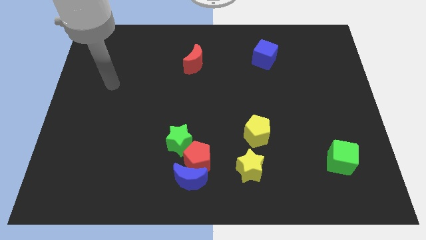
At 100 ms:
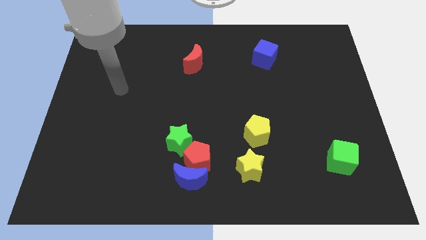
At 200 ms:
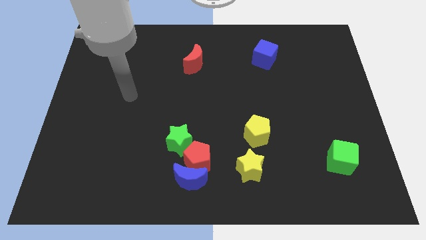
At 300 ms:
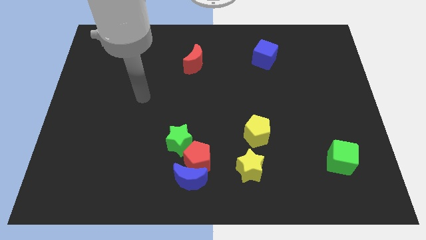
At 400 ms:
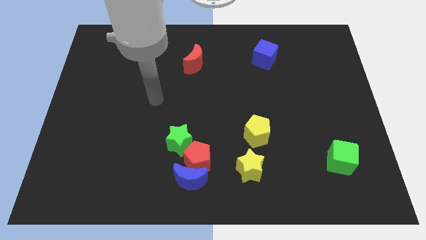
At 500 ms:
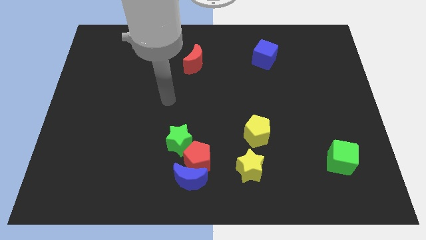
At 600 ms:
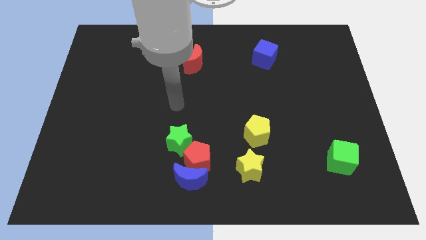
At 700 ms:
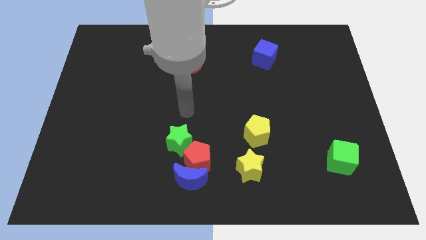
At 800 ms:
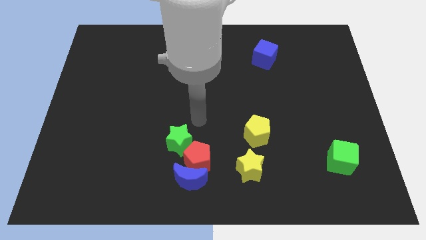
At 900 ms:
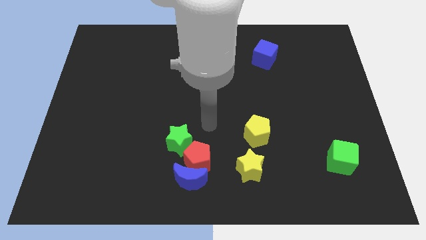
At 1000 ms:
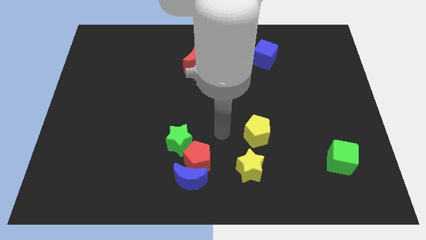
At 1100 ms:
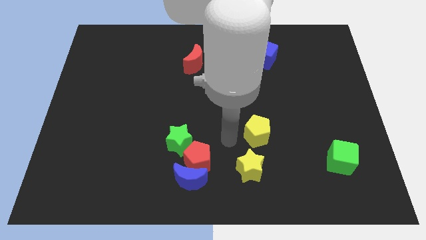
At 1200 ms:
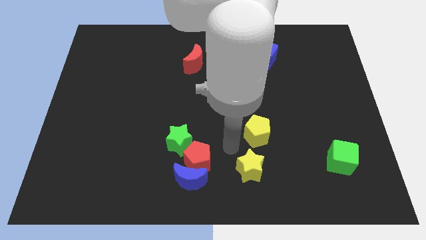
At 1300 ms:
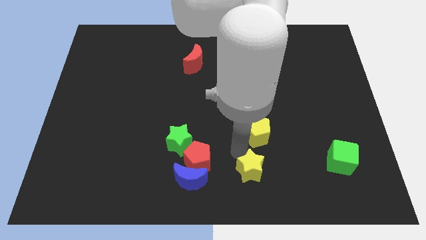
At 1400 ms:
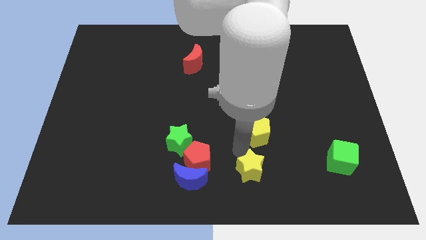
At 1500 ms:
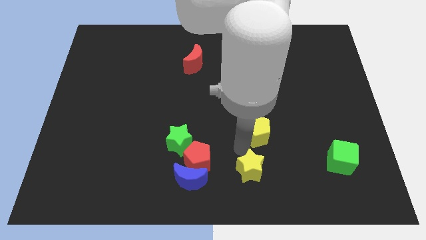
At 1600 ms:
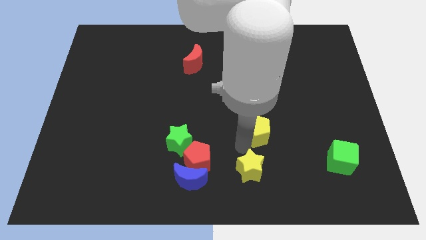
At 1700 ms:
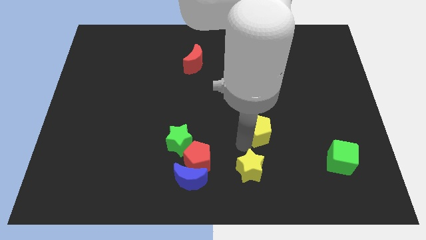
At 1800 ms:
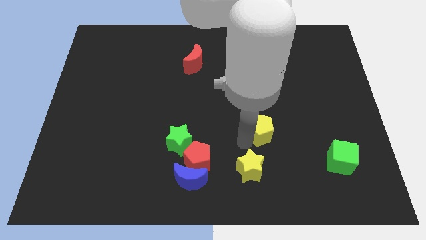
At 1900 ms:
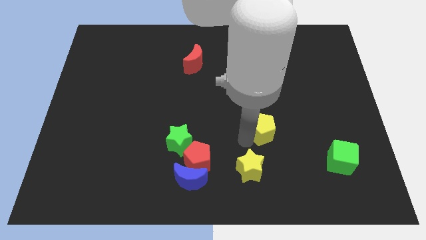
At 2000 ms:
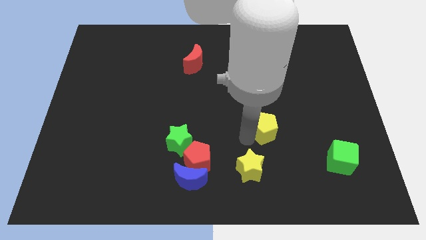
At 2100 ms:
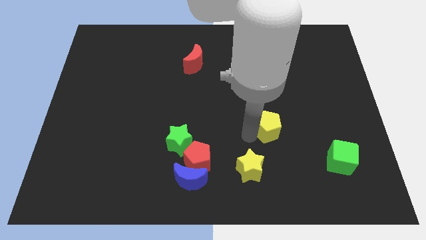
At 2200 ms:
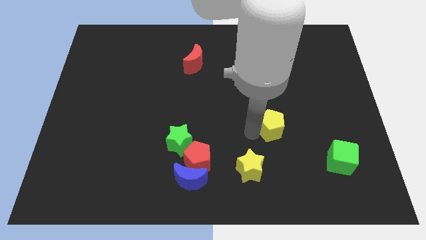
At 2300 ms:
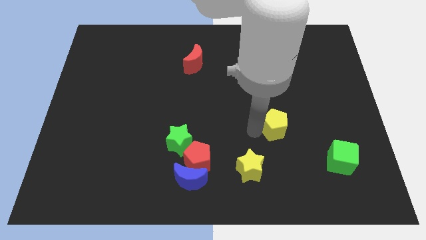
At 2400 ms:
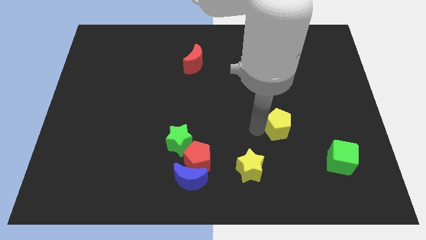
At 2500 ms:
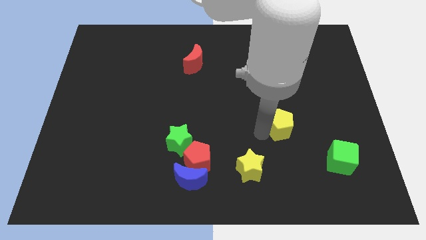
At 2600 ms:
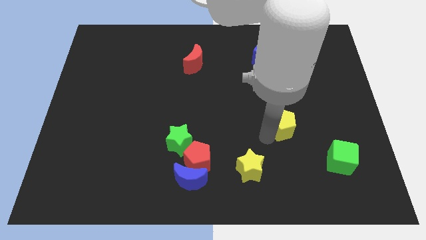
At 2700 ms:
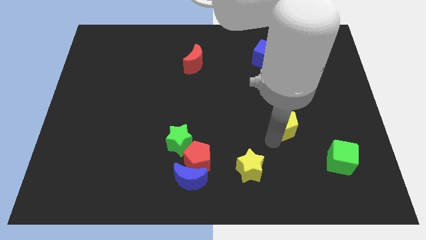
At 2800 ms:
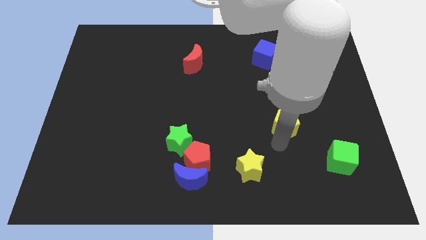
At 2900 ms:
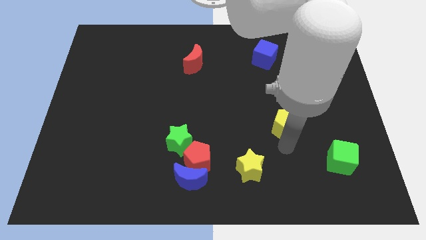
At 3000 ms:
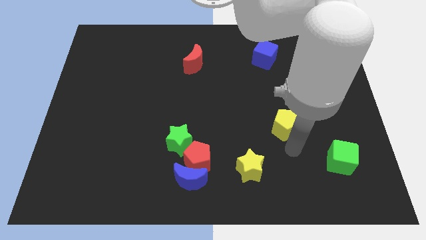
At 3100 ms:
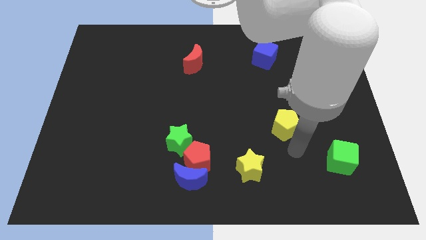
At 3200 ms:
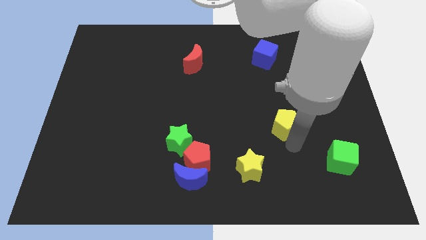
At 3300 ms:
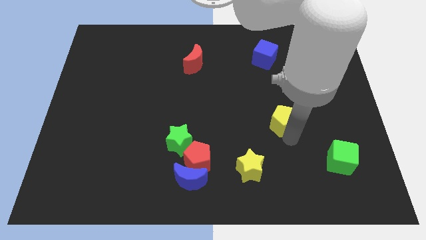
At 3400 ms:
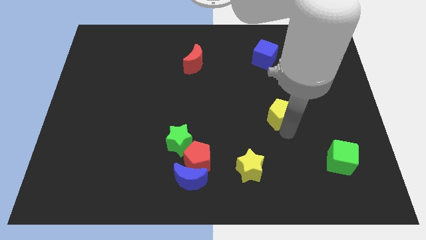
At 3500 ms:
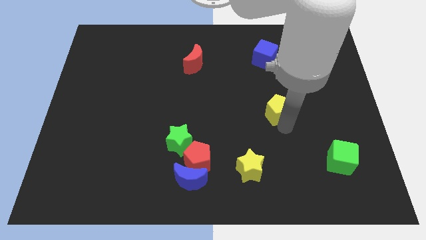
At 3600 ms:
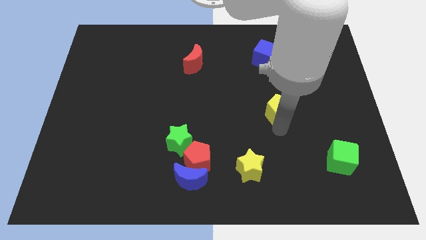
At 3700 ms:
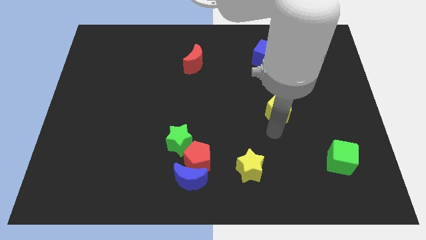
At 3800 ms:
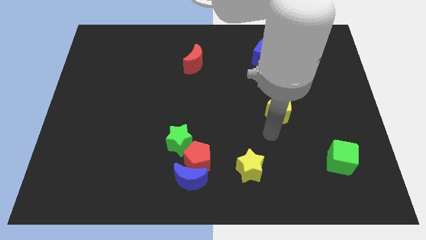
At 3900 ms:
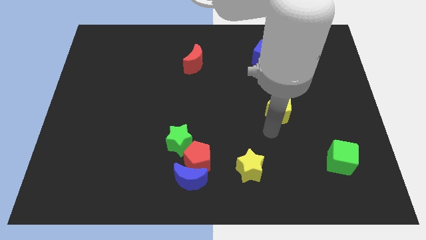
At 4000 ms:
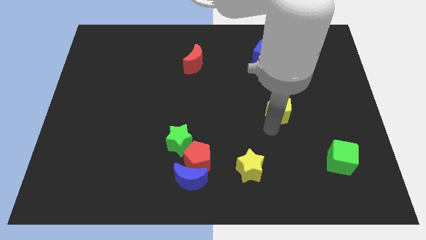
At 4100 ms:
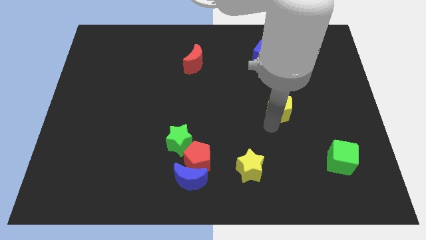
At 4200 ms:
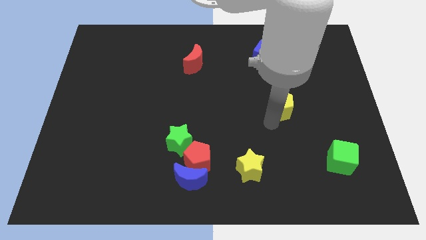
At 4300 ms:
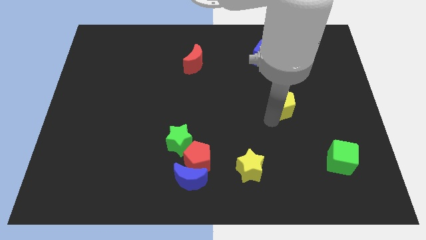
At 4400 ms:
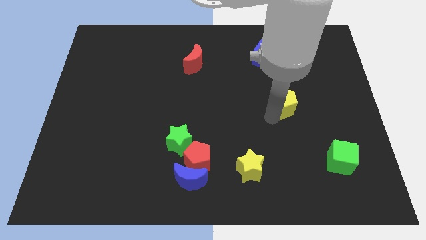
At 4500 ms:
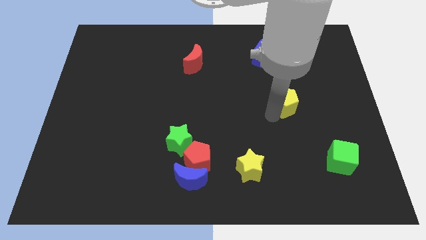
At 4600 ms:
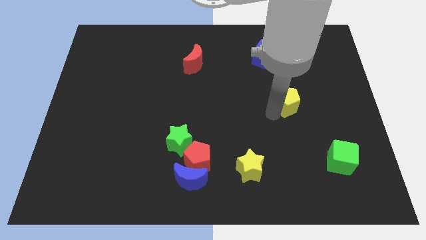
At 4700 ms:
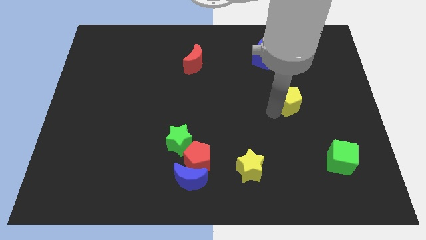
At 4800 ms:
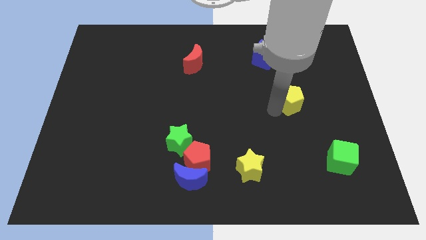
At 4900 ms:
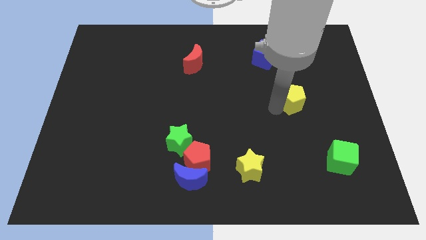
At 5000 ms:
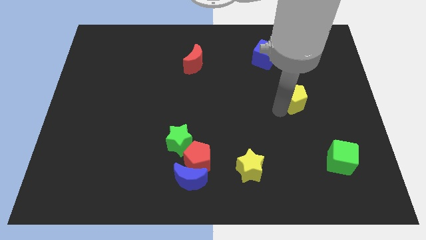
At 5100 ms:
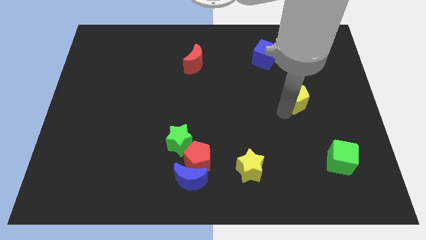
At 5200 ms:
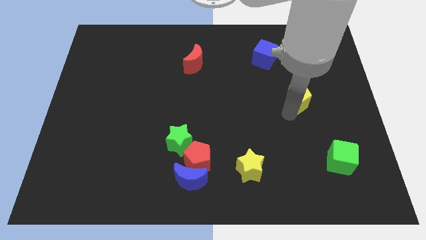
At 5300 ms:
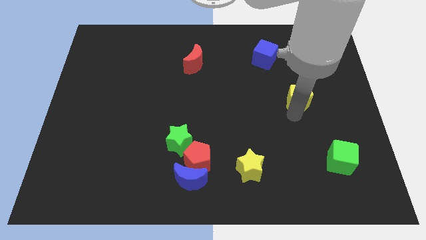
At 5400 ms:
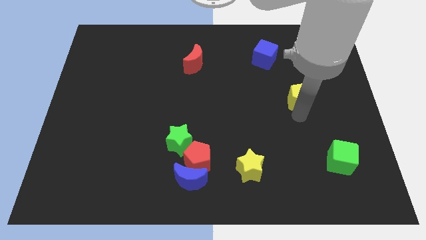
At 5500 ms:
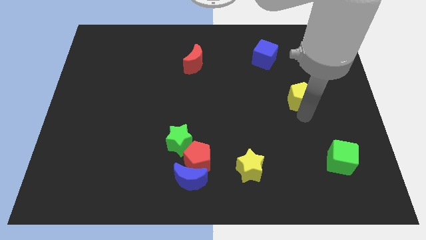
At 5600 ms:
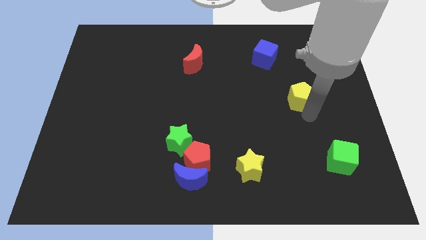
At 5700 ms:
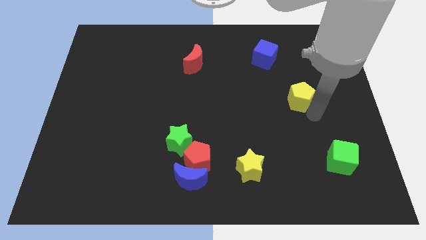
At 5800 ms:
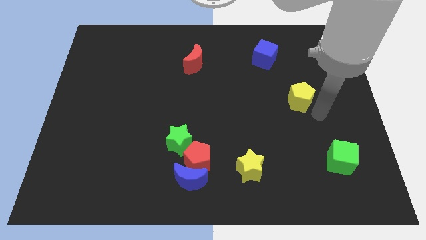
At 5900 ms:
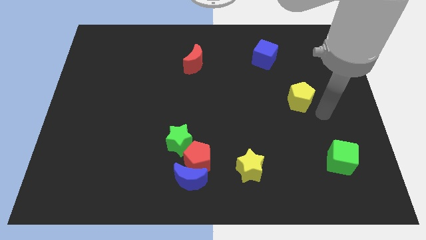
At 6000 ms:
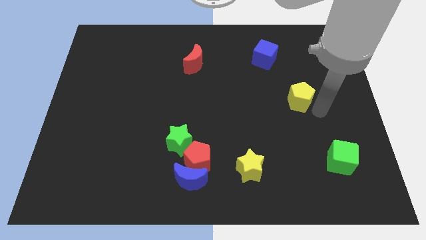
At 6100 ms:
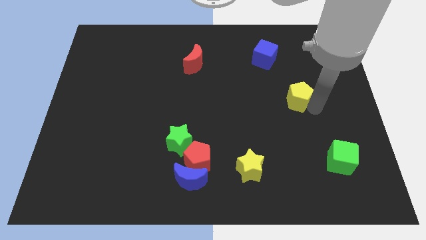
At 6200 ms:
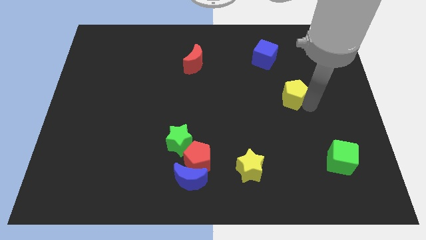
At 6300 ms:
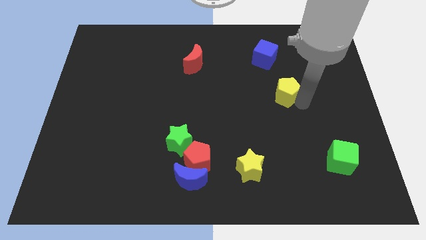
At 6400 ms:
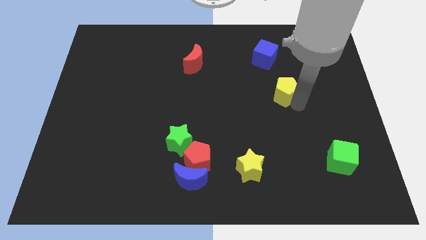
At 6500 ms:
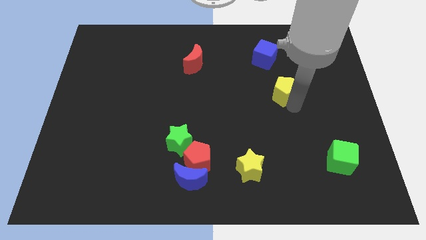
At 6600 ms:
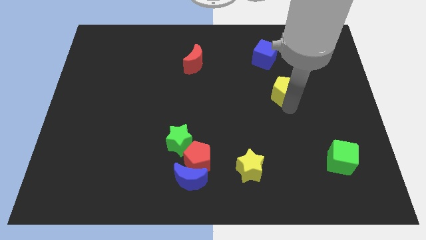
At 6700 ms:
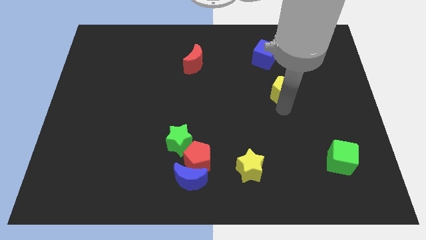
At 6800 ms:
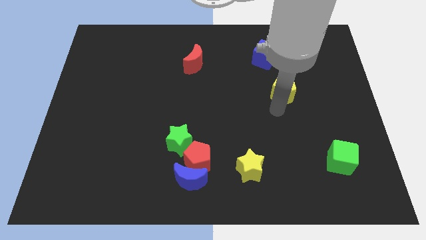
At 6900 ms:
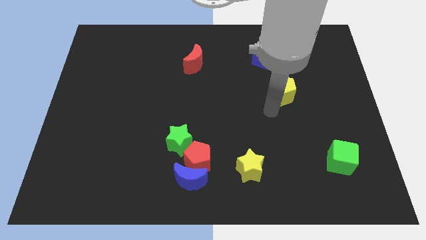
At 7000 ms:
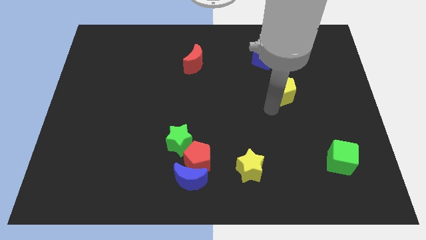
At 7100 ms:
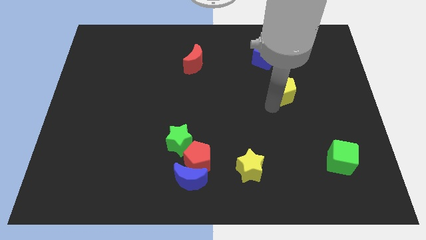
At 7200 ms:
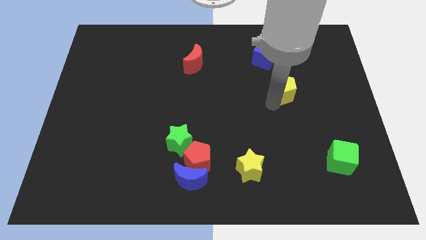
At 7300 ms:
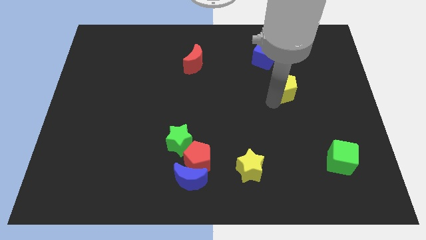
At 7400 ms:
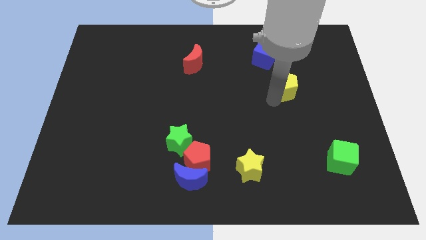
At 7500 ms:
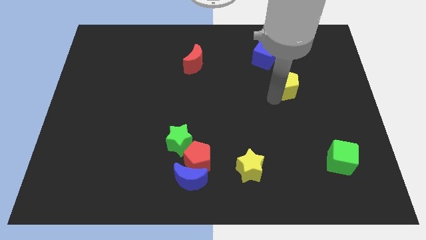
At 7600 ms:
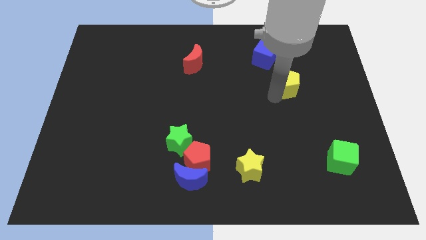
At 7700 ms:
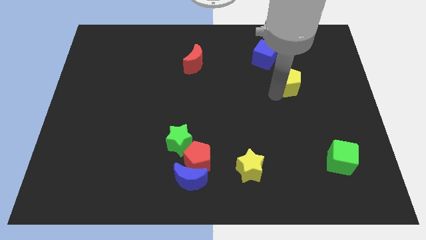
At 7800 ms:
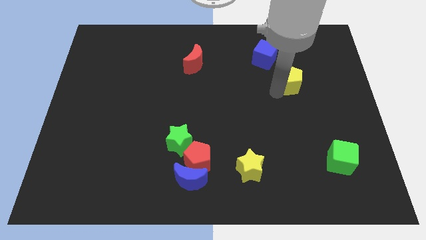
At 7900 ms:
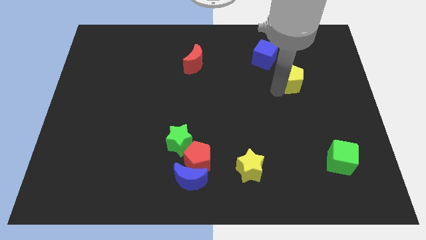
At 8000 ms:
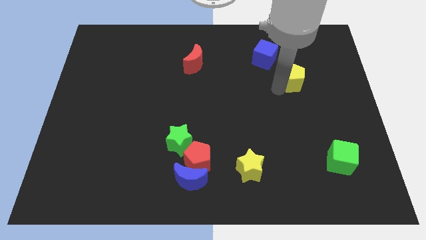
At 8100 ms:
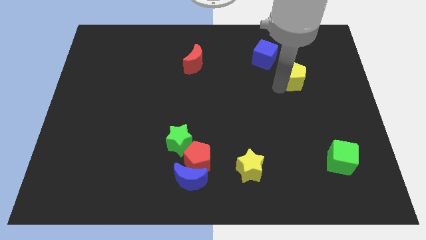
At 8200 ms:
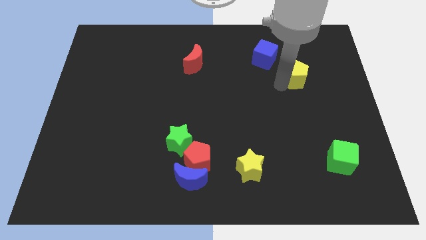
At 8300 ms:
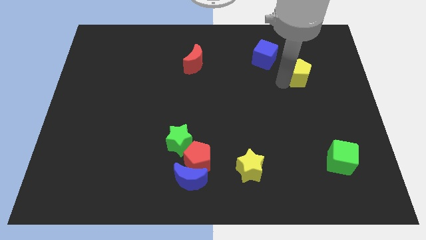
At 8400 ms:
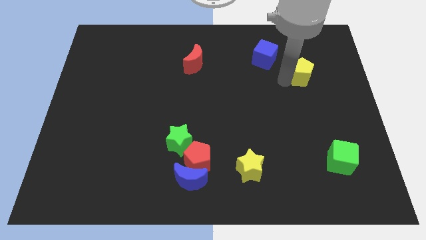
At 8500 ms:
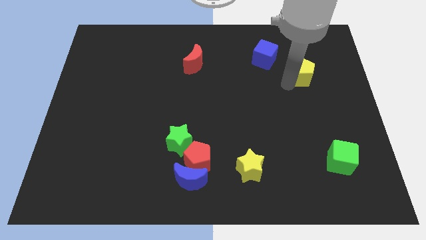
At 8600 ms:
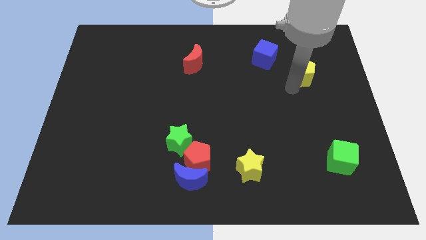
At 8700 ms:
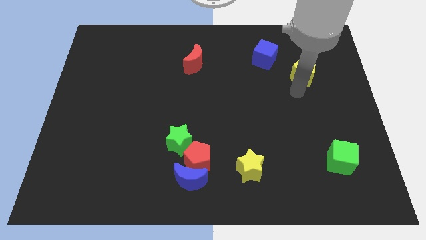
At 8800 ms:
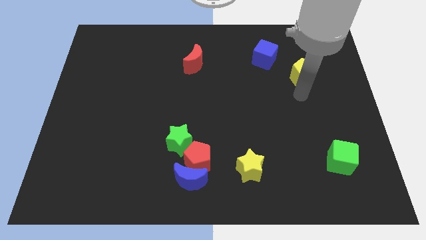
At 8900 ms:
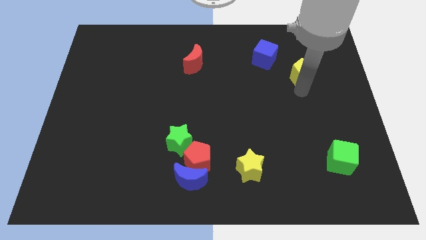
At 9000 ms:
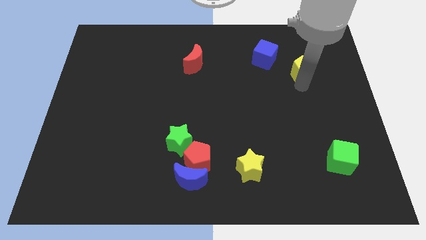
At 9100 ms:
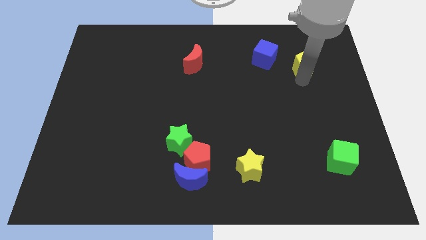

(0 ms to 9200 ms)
push the yellow pentagon to the right side of the blue cube
